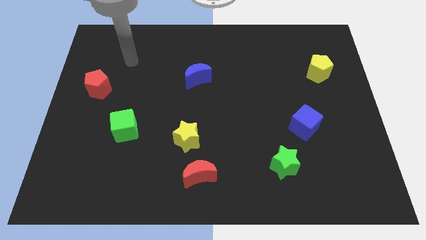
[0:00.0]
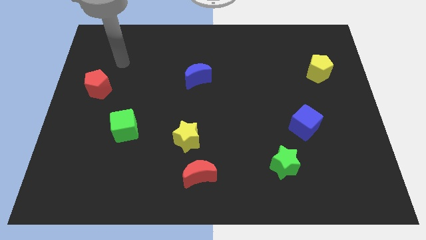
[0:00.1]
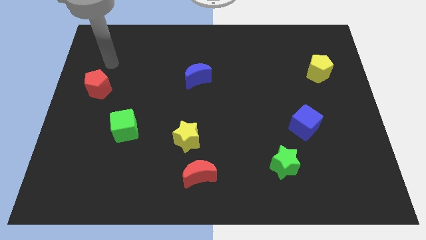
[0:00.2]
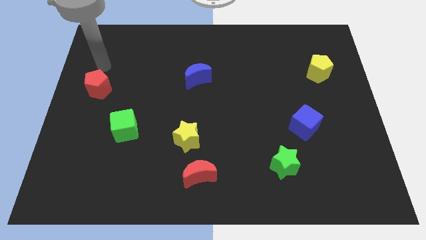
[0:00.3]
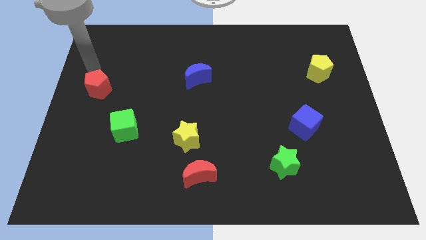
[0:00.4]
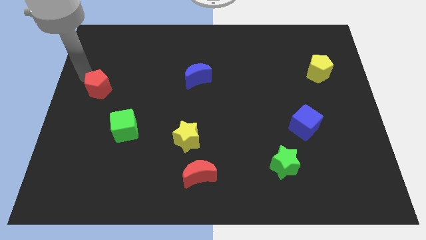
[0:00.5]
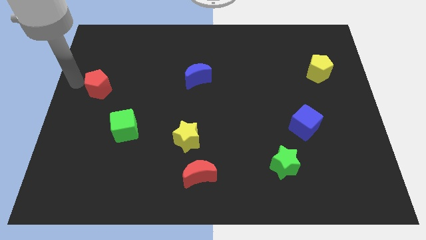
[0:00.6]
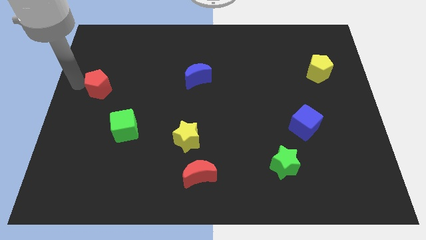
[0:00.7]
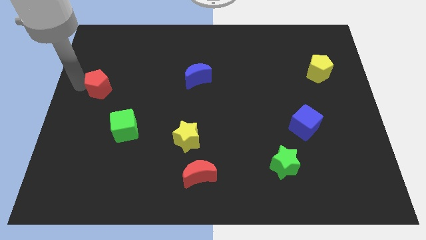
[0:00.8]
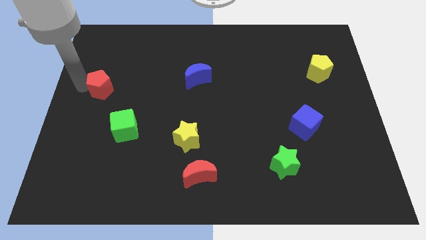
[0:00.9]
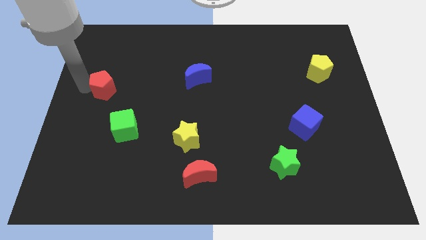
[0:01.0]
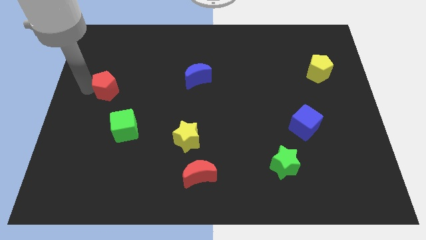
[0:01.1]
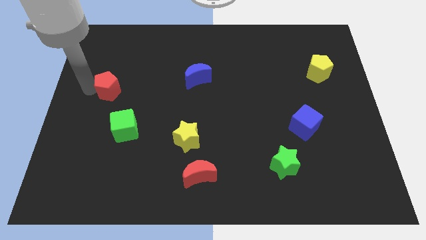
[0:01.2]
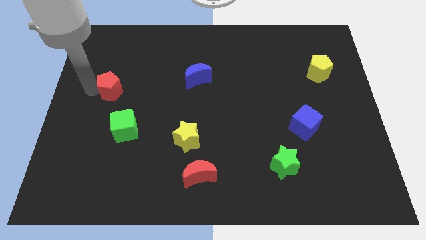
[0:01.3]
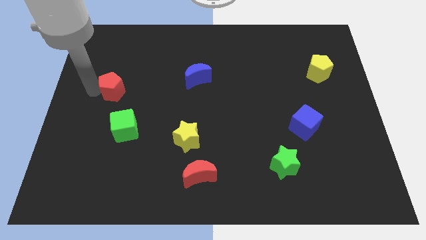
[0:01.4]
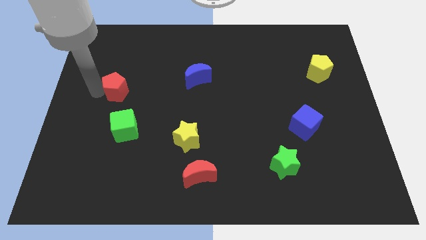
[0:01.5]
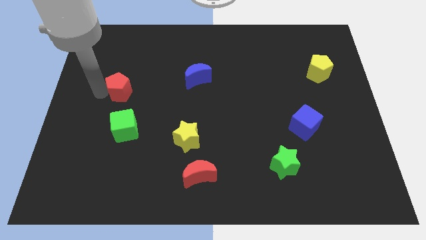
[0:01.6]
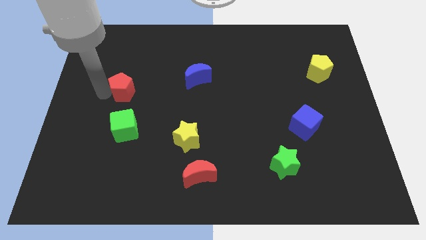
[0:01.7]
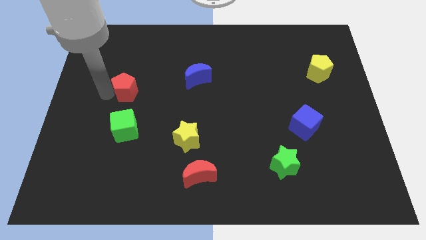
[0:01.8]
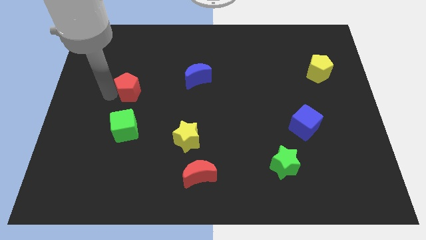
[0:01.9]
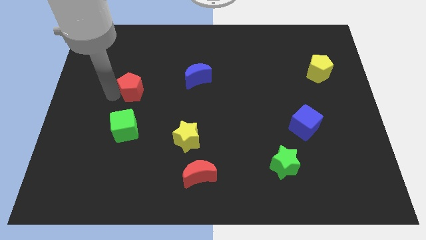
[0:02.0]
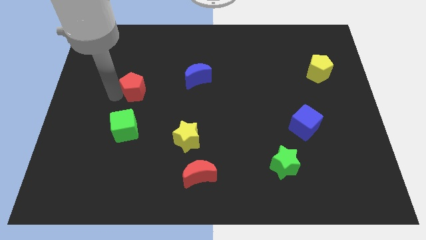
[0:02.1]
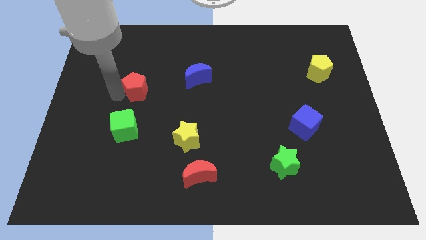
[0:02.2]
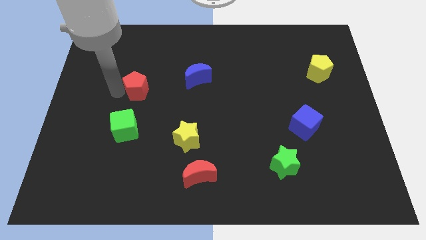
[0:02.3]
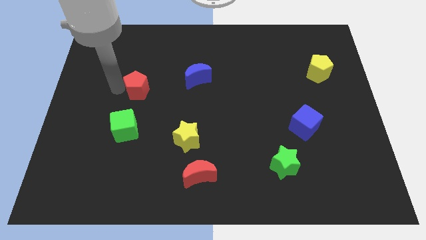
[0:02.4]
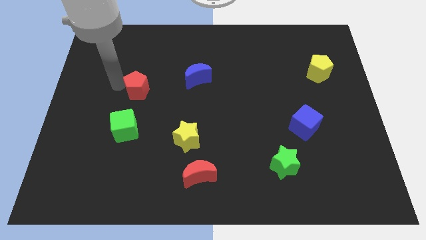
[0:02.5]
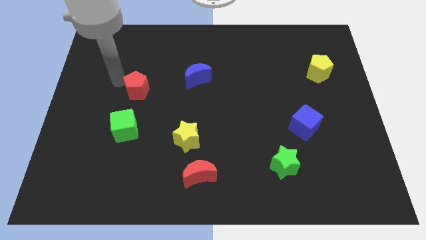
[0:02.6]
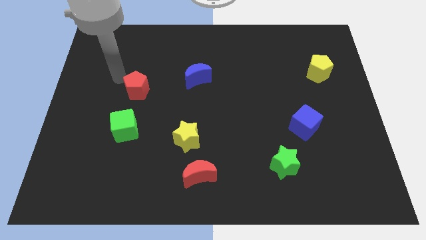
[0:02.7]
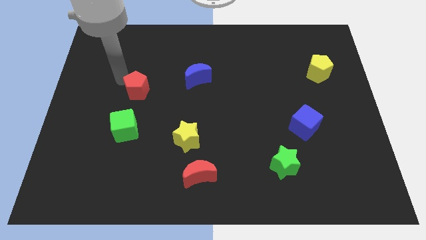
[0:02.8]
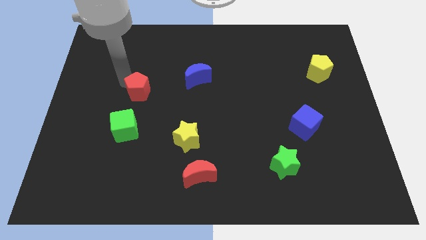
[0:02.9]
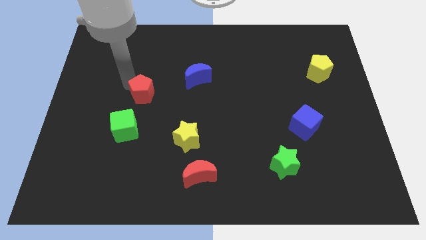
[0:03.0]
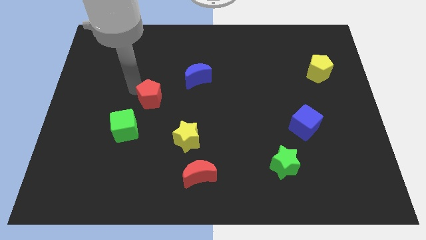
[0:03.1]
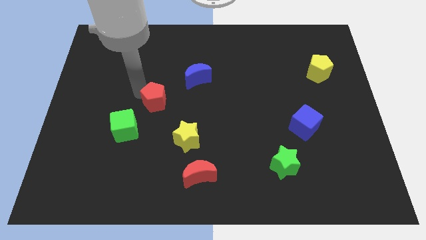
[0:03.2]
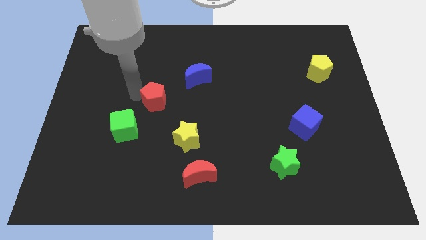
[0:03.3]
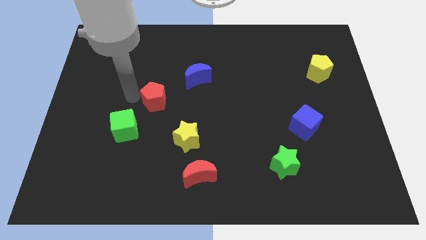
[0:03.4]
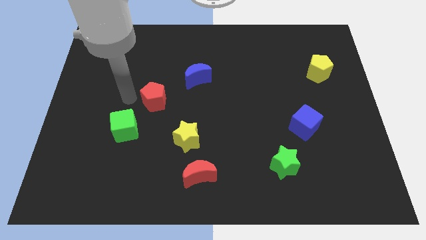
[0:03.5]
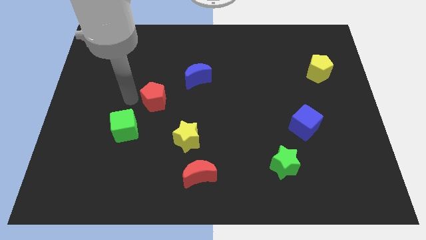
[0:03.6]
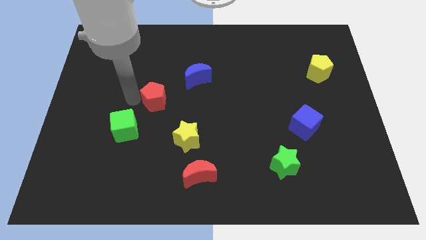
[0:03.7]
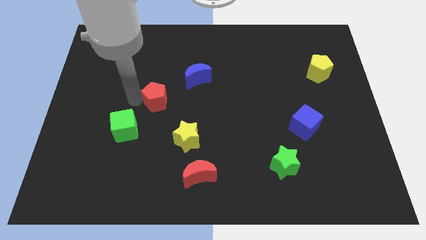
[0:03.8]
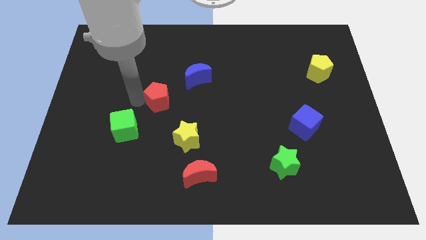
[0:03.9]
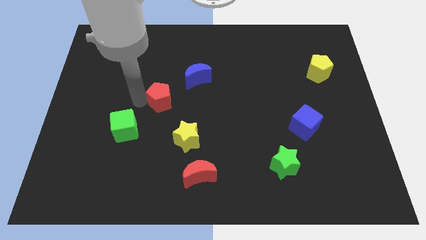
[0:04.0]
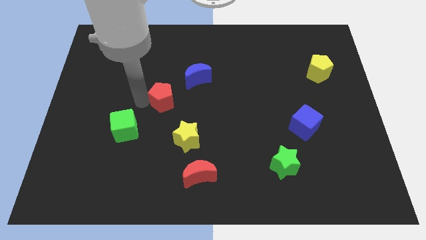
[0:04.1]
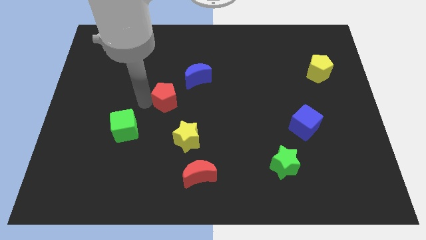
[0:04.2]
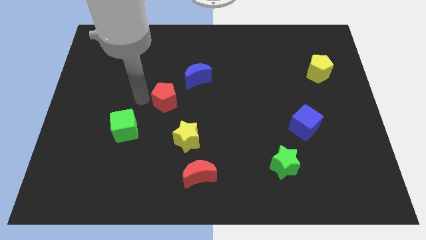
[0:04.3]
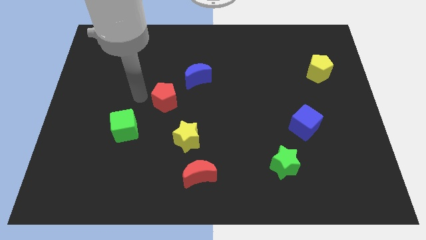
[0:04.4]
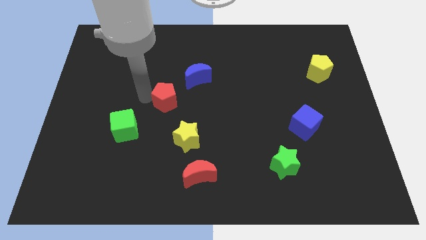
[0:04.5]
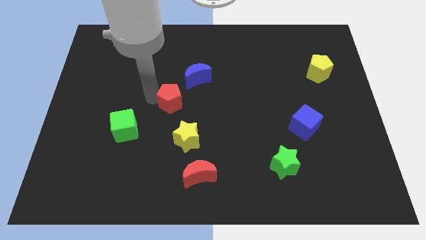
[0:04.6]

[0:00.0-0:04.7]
put the red pentagon to the top side of the yellow star

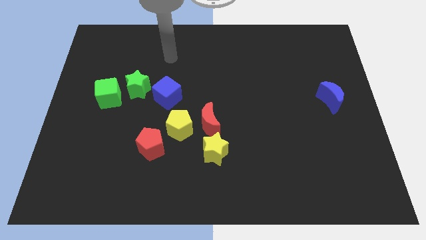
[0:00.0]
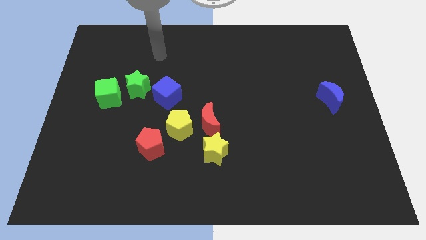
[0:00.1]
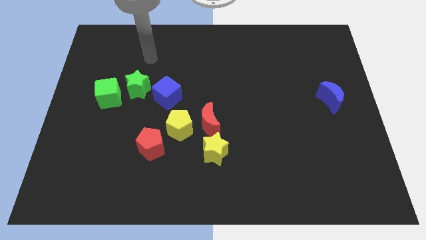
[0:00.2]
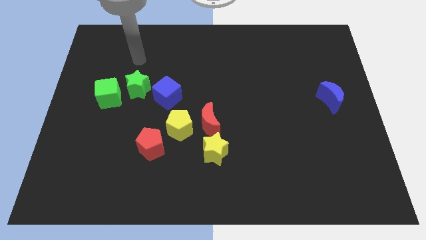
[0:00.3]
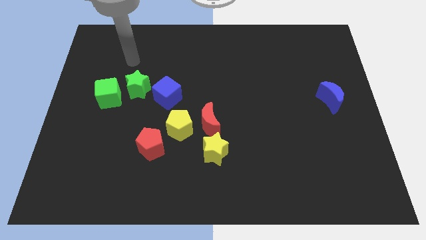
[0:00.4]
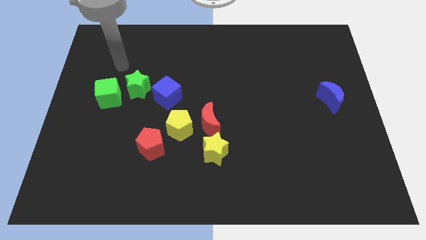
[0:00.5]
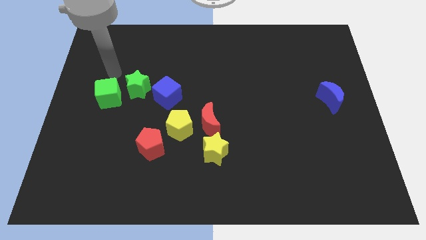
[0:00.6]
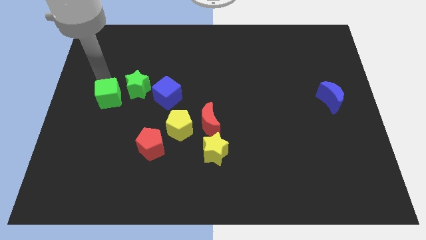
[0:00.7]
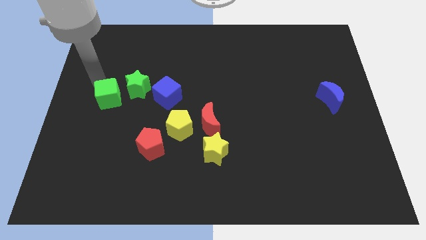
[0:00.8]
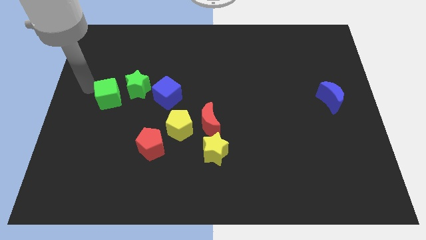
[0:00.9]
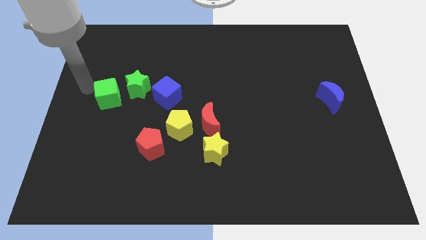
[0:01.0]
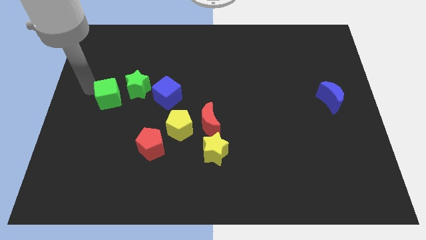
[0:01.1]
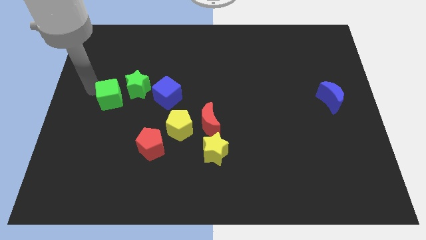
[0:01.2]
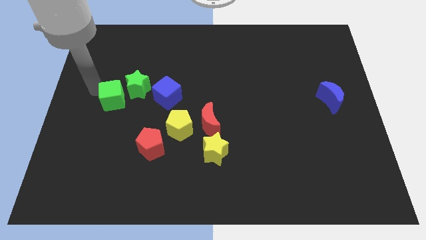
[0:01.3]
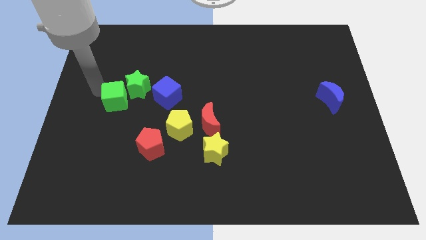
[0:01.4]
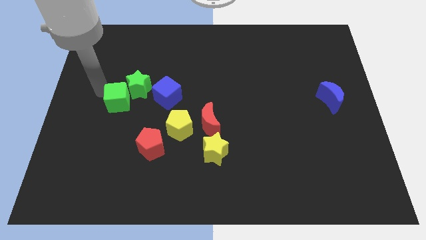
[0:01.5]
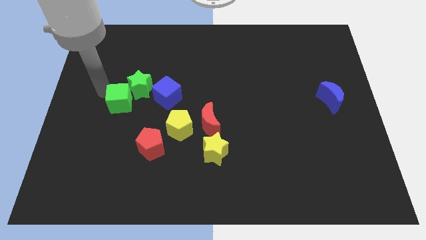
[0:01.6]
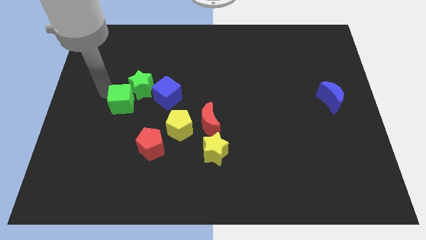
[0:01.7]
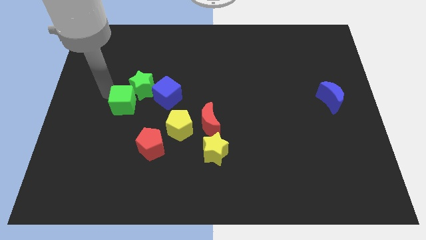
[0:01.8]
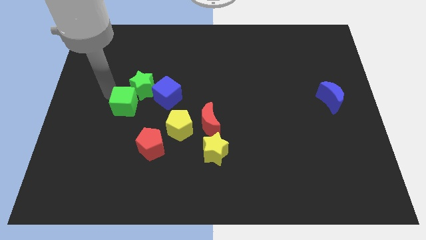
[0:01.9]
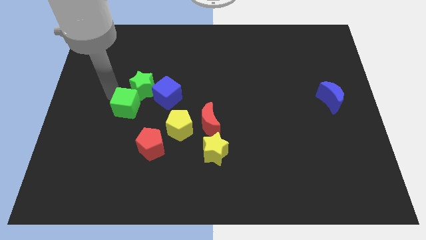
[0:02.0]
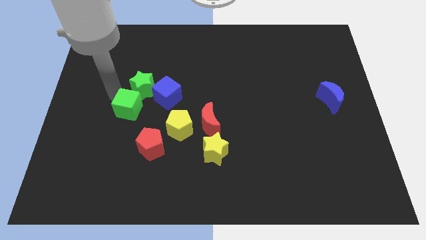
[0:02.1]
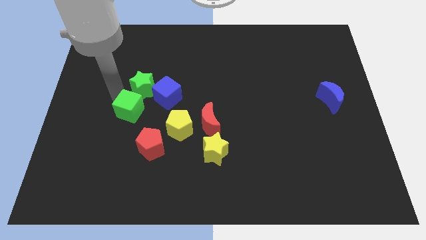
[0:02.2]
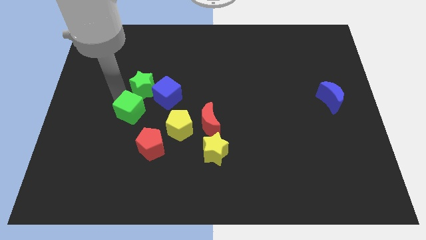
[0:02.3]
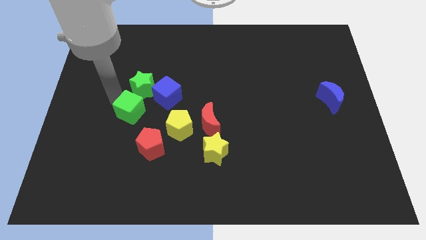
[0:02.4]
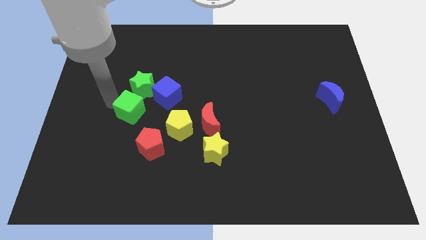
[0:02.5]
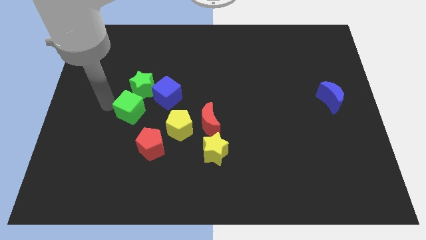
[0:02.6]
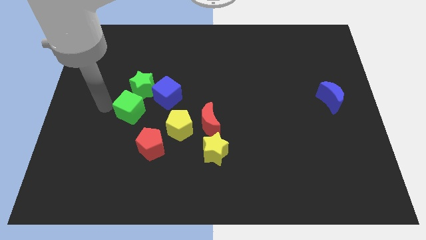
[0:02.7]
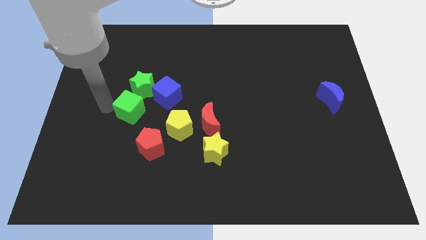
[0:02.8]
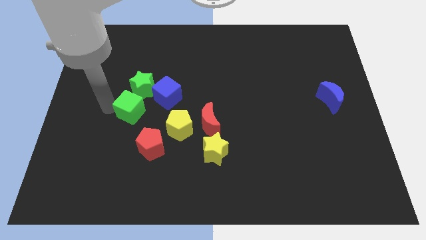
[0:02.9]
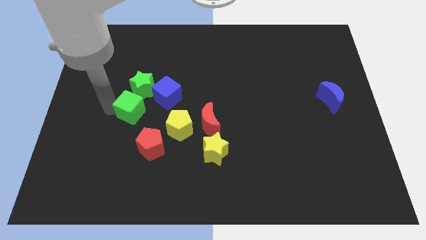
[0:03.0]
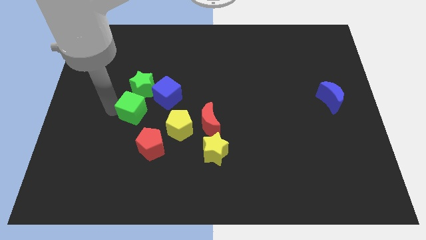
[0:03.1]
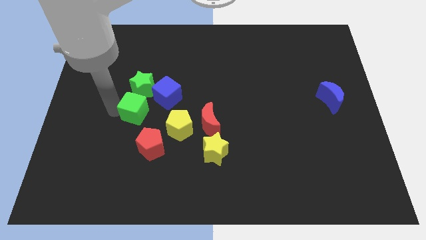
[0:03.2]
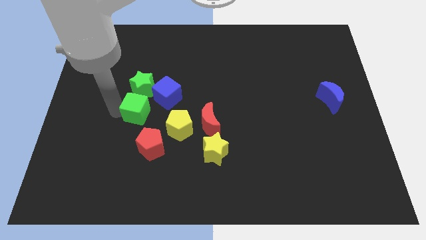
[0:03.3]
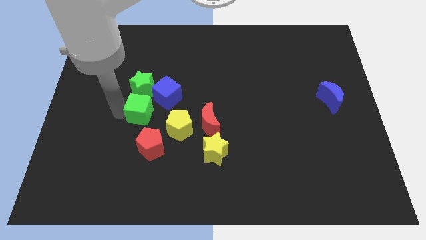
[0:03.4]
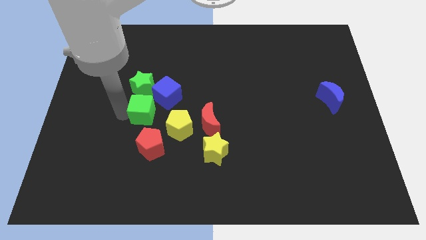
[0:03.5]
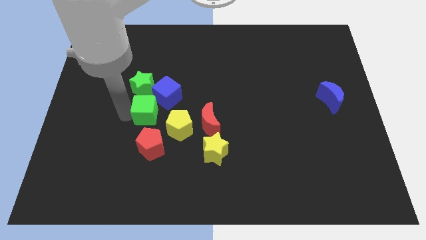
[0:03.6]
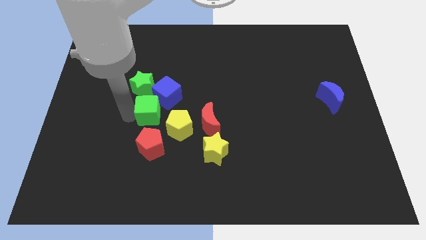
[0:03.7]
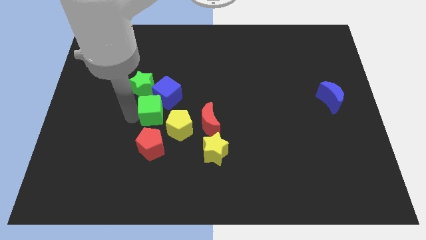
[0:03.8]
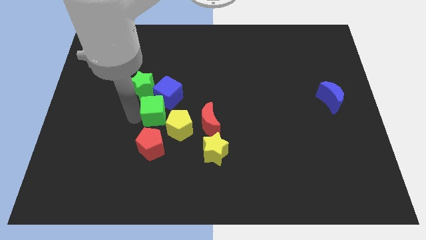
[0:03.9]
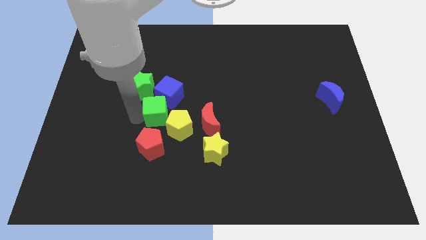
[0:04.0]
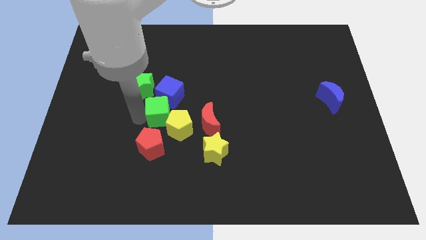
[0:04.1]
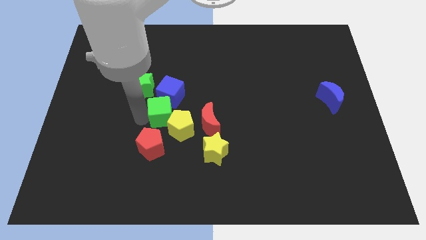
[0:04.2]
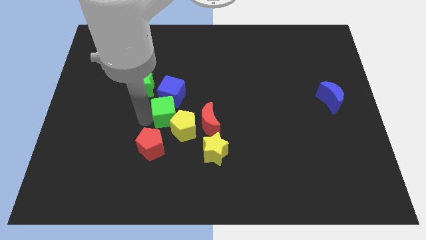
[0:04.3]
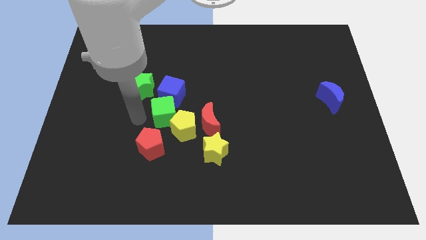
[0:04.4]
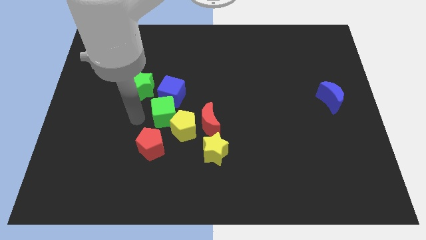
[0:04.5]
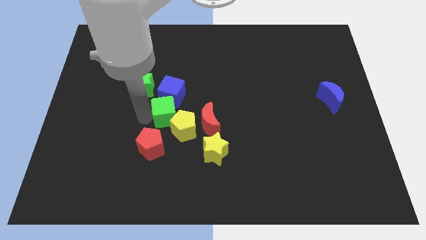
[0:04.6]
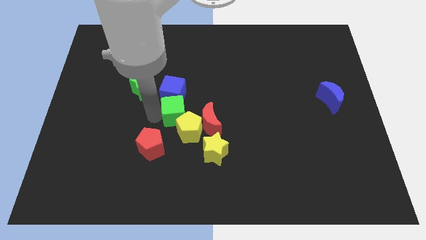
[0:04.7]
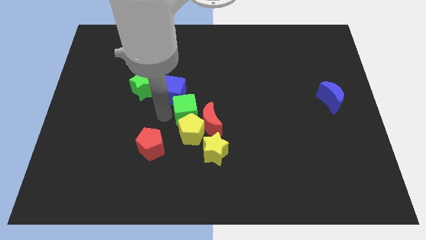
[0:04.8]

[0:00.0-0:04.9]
slide the green cube to the top right of the yellow pentagon
